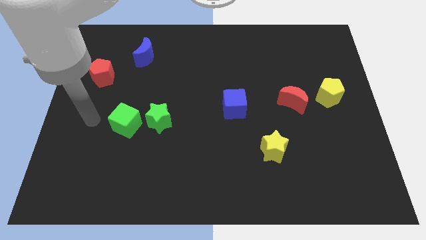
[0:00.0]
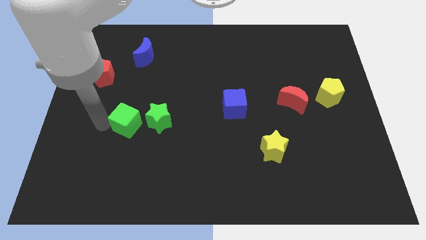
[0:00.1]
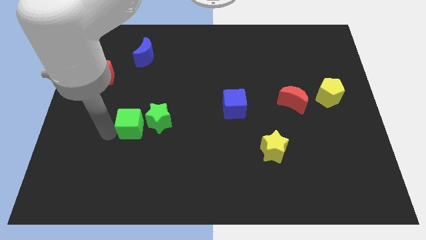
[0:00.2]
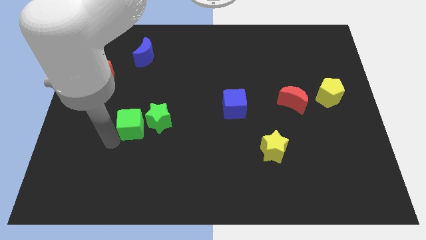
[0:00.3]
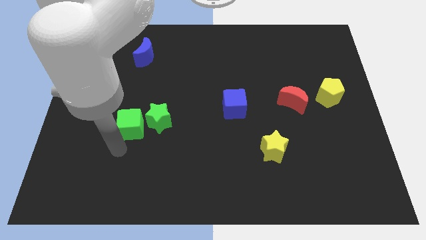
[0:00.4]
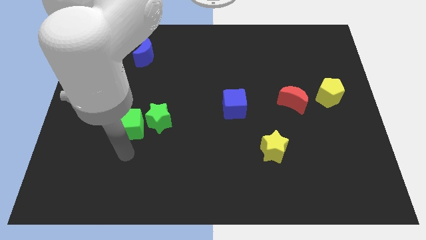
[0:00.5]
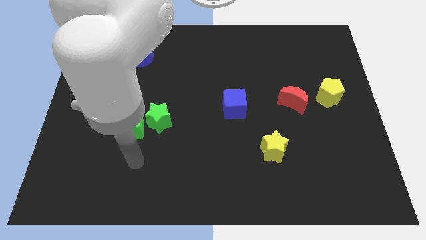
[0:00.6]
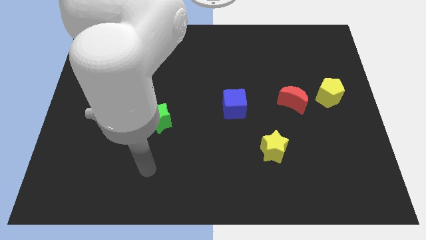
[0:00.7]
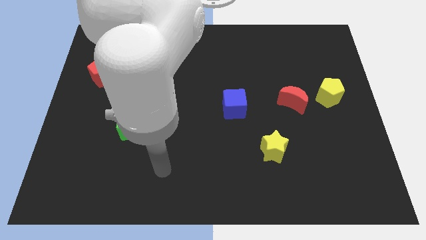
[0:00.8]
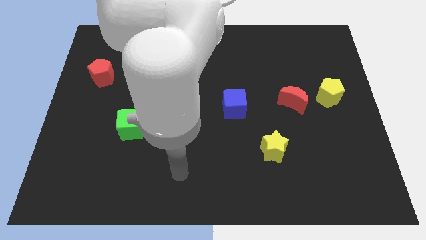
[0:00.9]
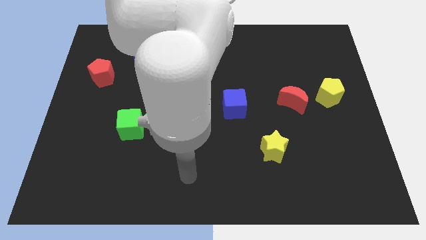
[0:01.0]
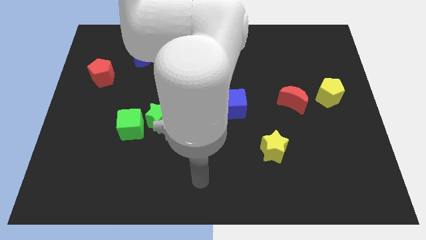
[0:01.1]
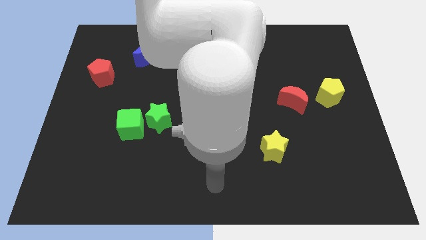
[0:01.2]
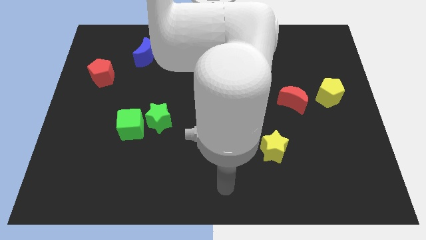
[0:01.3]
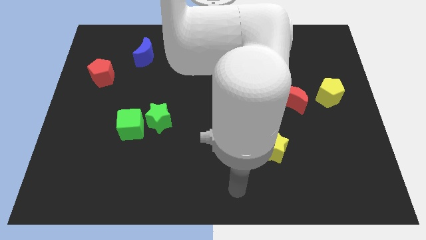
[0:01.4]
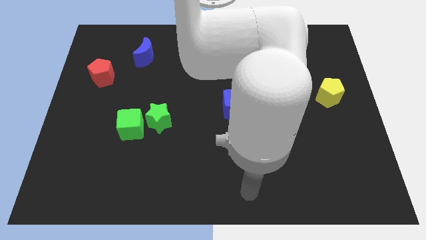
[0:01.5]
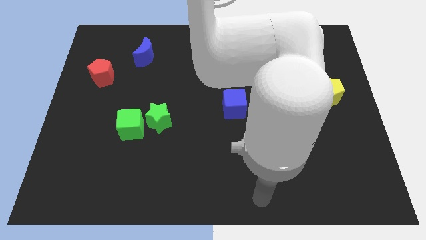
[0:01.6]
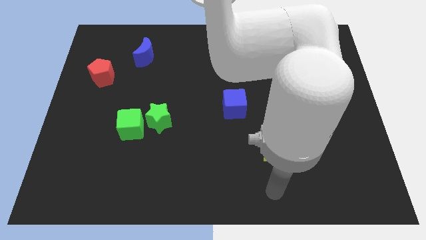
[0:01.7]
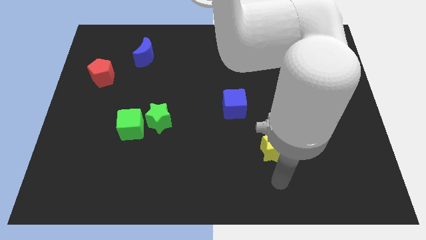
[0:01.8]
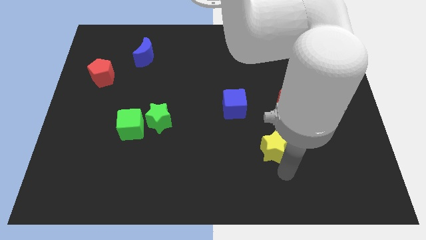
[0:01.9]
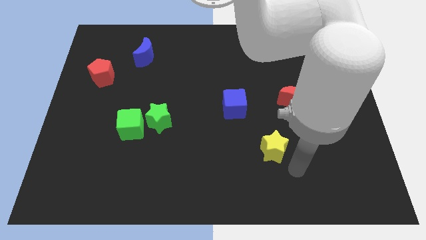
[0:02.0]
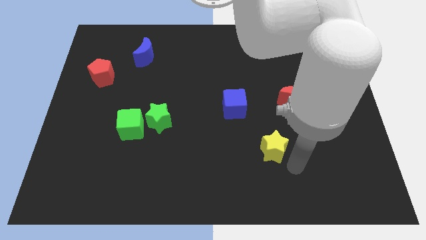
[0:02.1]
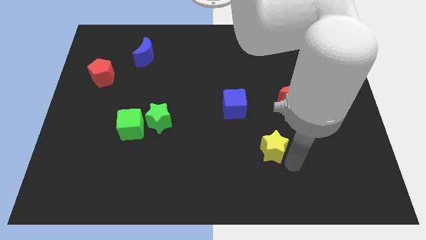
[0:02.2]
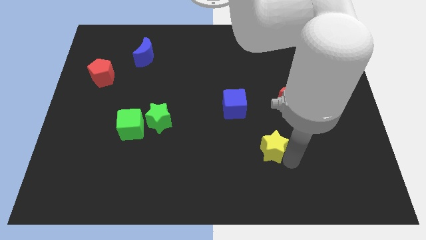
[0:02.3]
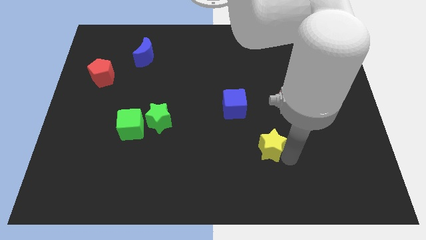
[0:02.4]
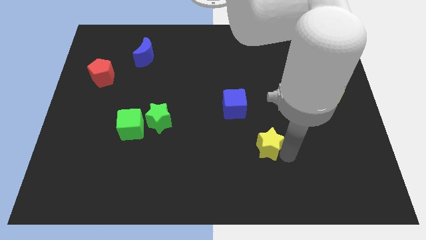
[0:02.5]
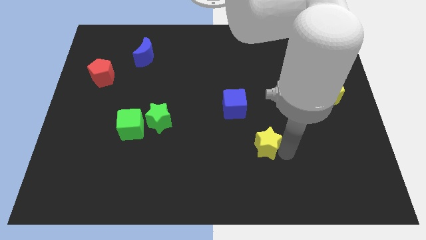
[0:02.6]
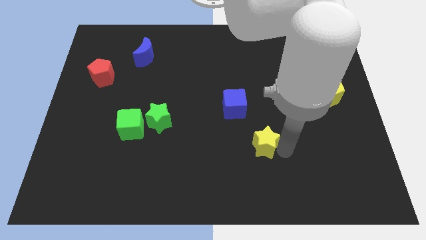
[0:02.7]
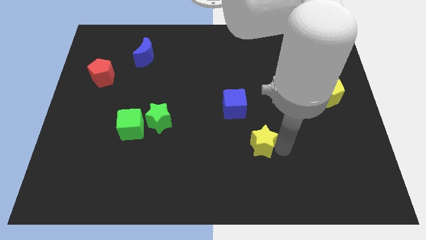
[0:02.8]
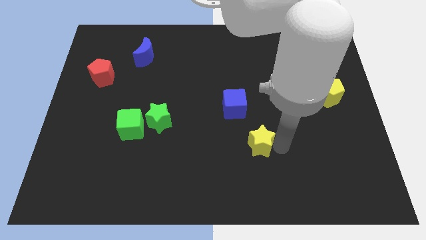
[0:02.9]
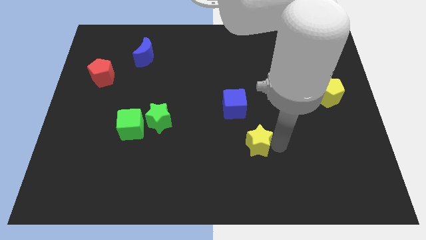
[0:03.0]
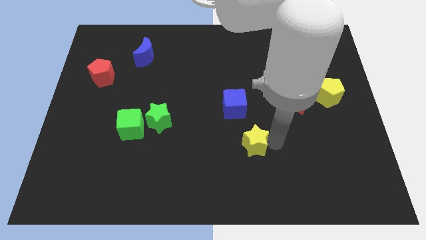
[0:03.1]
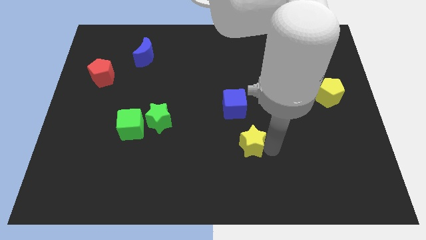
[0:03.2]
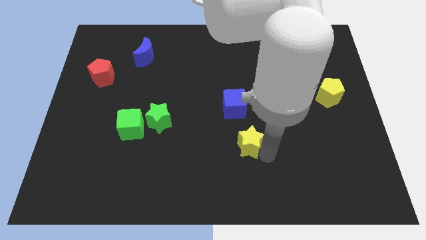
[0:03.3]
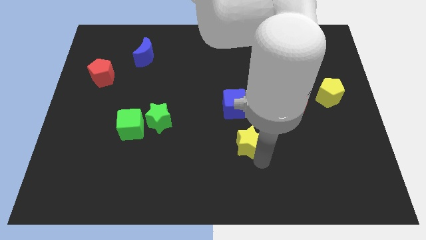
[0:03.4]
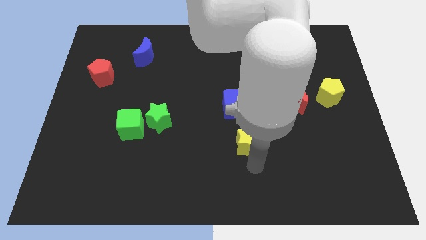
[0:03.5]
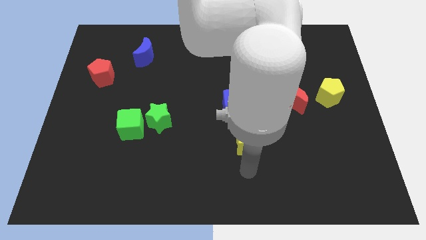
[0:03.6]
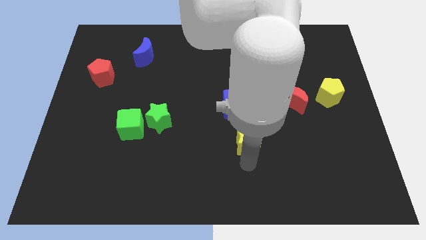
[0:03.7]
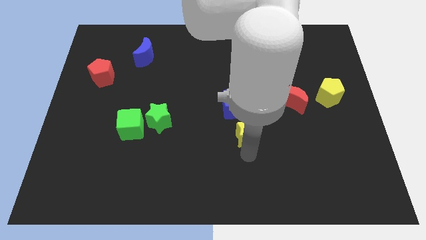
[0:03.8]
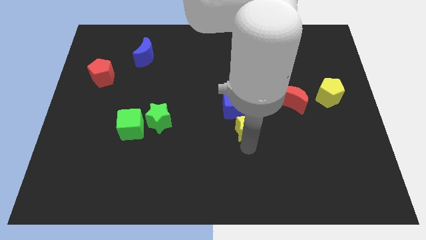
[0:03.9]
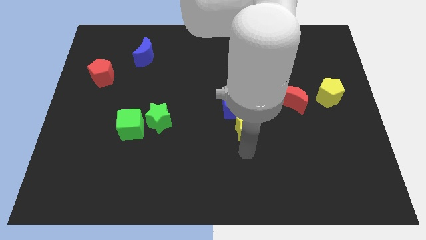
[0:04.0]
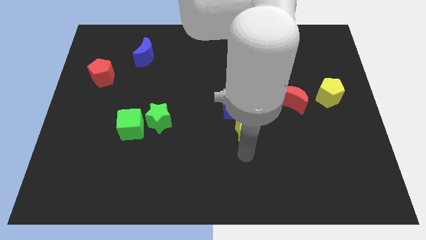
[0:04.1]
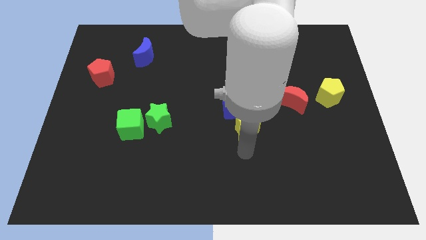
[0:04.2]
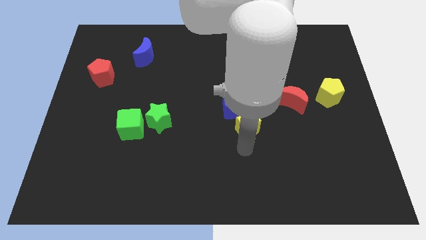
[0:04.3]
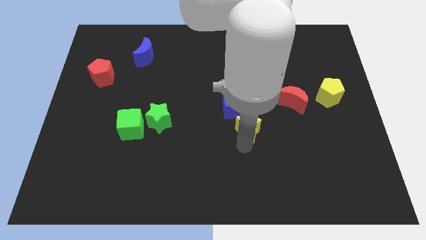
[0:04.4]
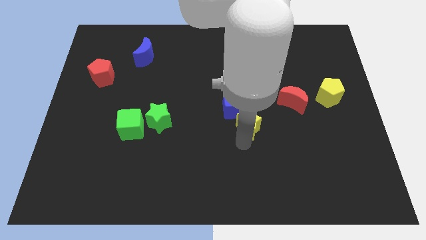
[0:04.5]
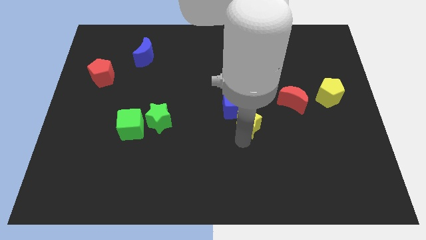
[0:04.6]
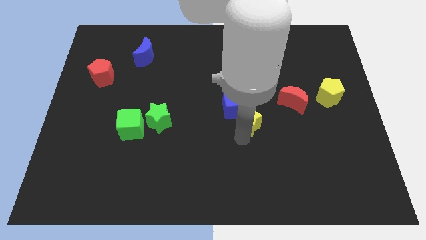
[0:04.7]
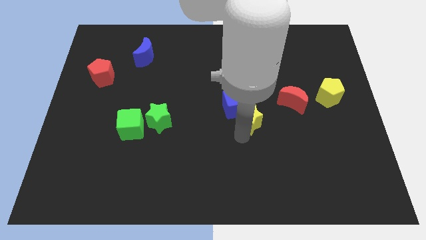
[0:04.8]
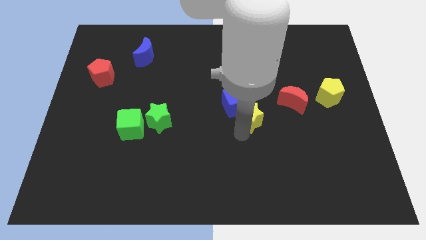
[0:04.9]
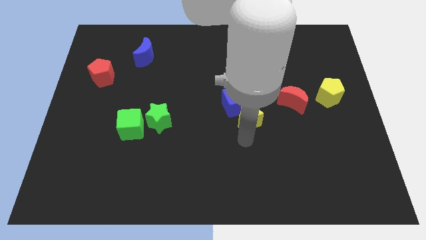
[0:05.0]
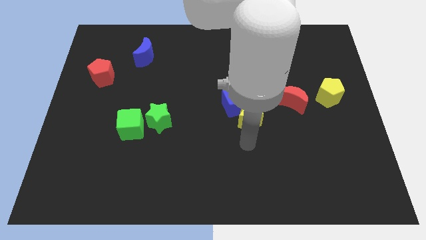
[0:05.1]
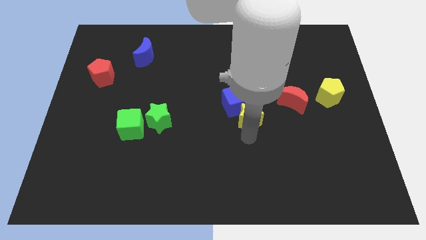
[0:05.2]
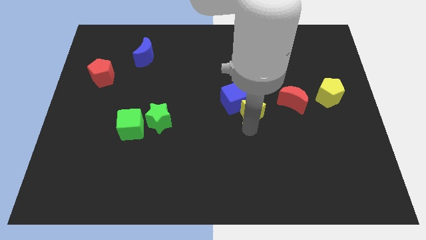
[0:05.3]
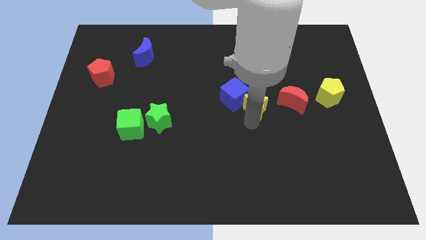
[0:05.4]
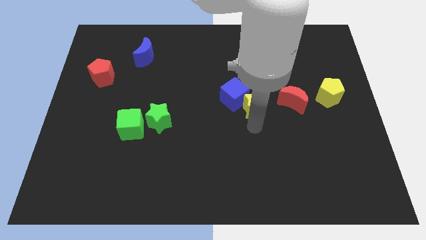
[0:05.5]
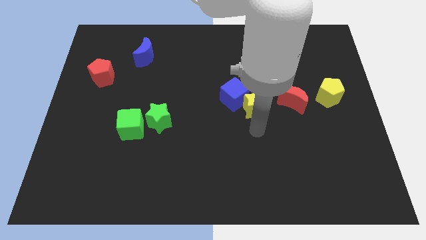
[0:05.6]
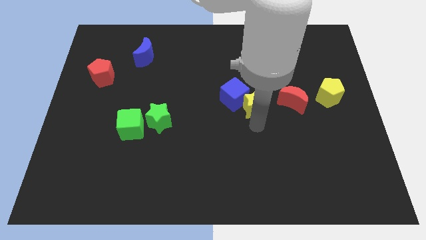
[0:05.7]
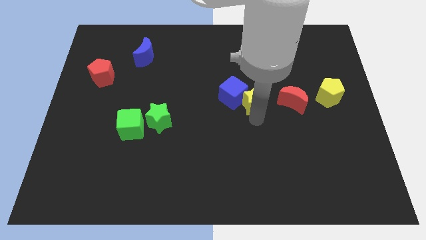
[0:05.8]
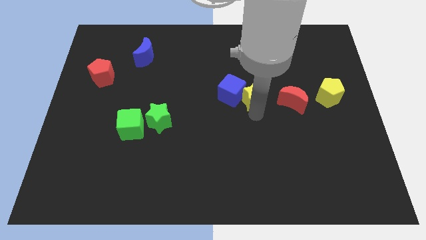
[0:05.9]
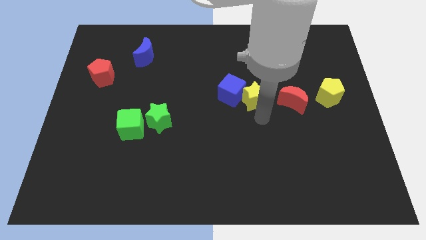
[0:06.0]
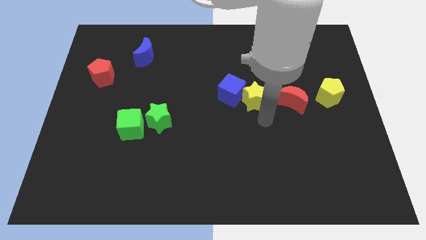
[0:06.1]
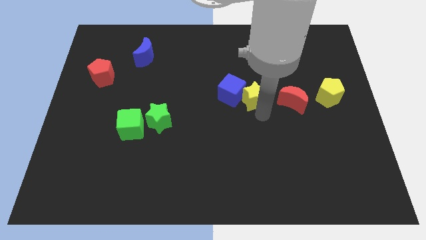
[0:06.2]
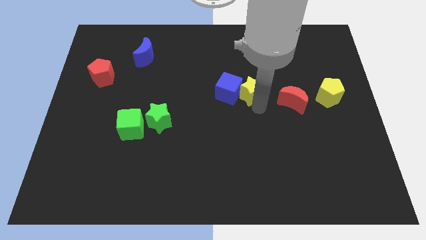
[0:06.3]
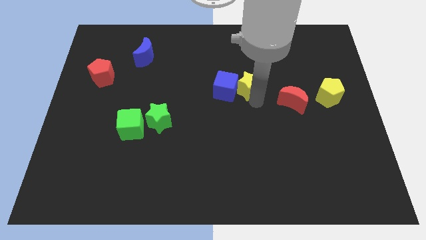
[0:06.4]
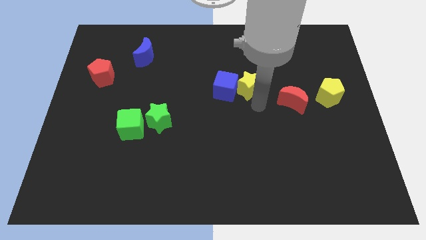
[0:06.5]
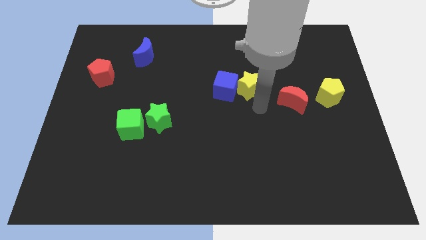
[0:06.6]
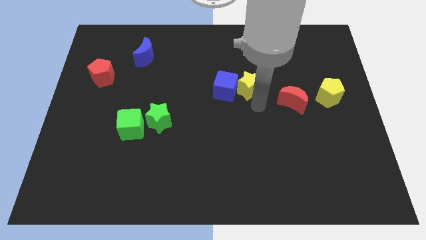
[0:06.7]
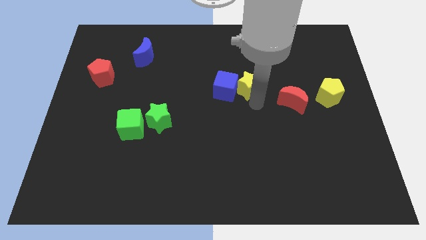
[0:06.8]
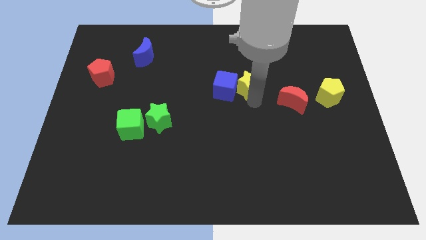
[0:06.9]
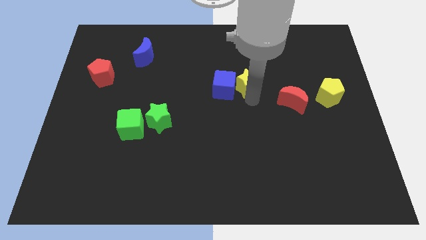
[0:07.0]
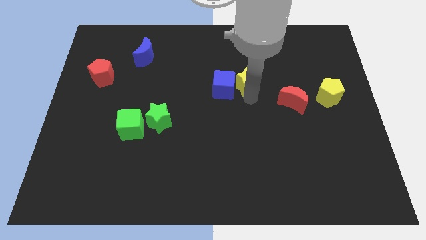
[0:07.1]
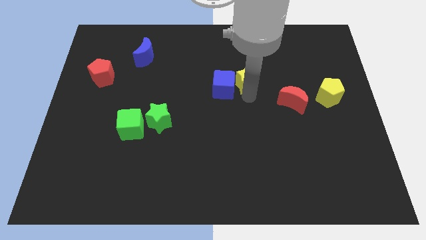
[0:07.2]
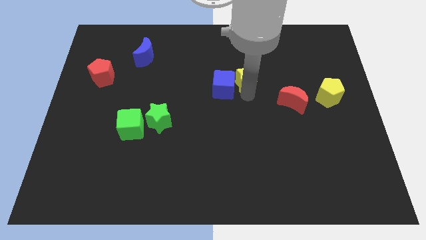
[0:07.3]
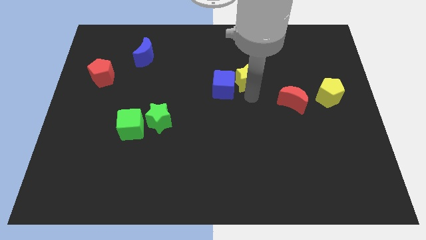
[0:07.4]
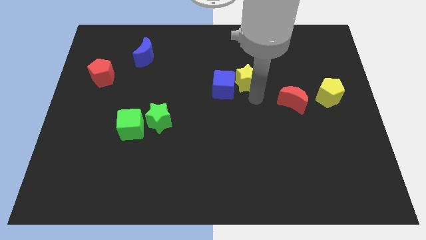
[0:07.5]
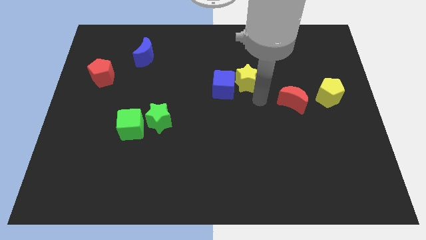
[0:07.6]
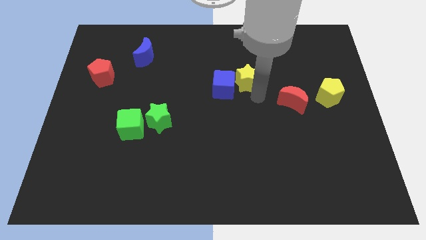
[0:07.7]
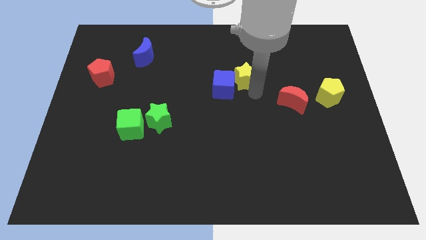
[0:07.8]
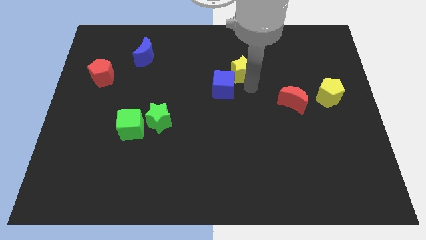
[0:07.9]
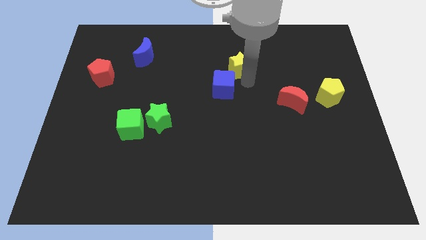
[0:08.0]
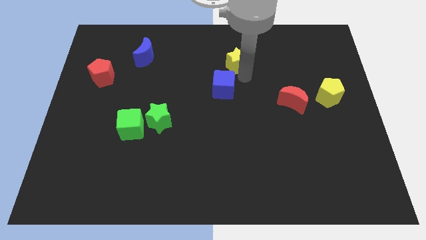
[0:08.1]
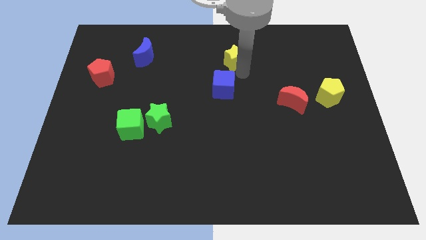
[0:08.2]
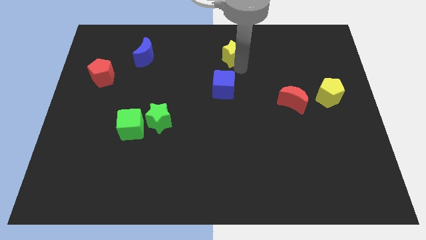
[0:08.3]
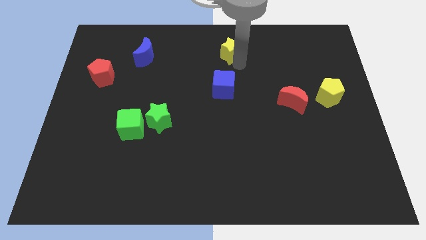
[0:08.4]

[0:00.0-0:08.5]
put the yellow star to the top
